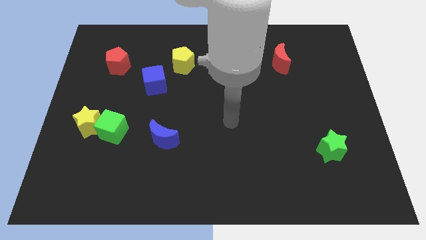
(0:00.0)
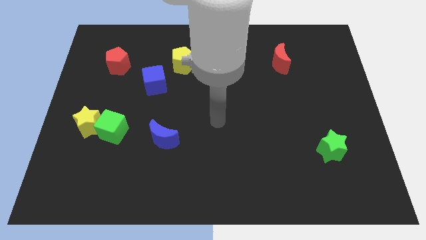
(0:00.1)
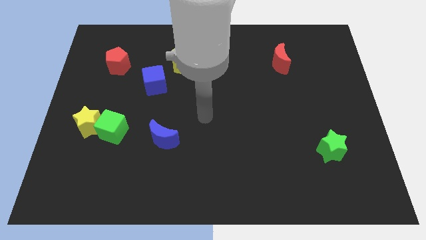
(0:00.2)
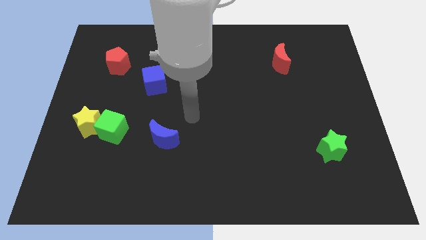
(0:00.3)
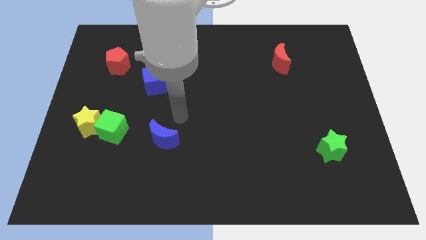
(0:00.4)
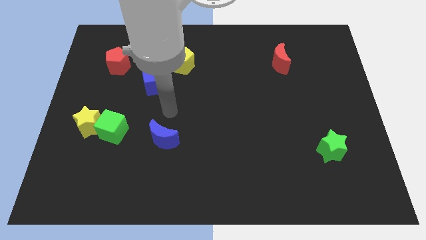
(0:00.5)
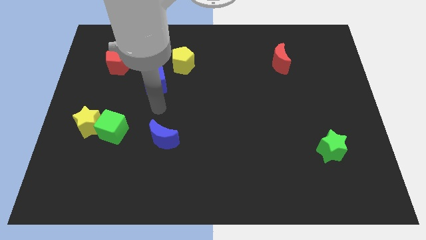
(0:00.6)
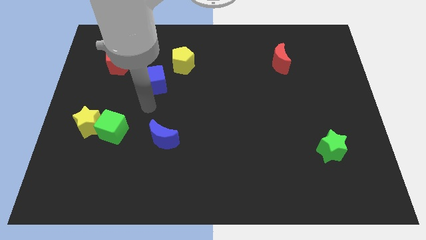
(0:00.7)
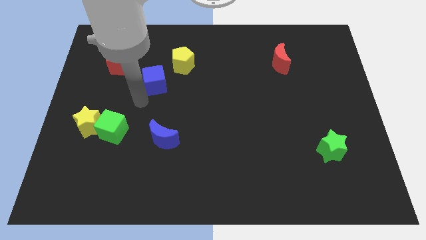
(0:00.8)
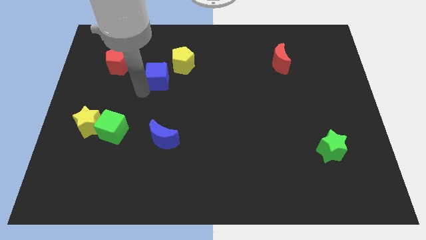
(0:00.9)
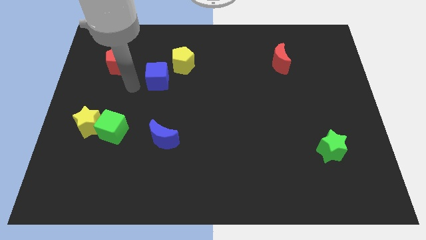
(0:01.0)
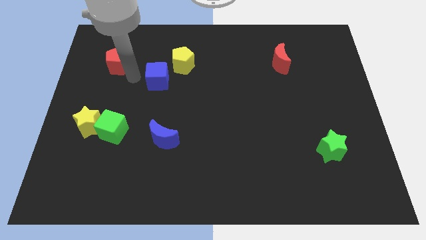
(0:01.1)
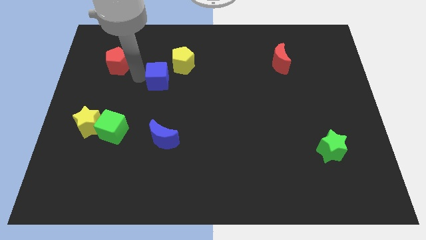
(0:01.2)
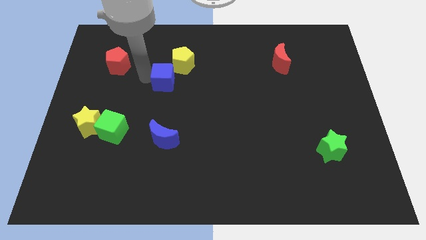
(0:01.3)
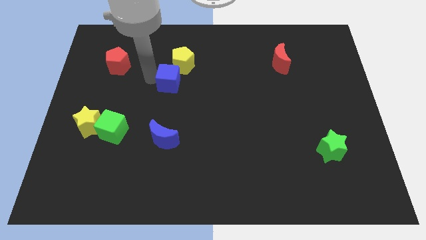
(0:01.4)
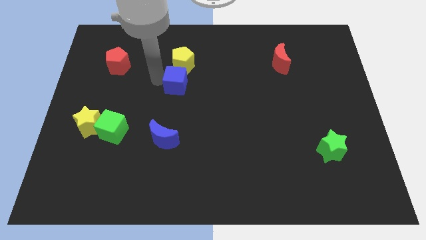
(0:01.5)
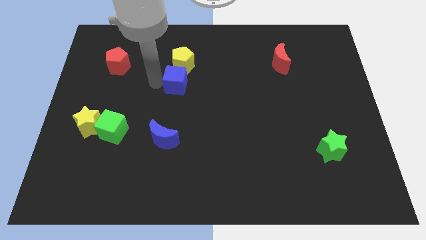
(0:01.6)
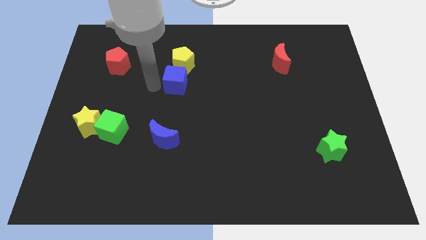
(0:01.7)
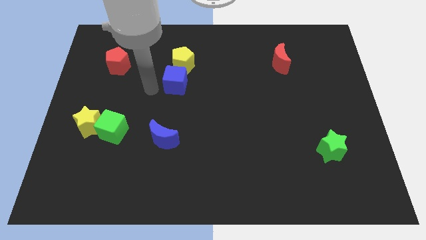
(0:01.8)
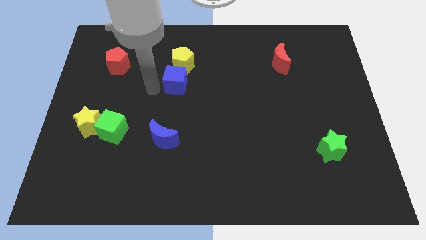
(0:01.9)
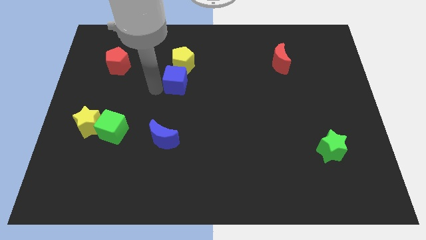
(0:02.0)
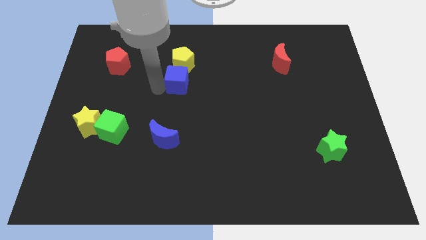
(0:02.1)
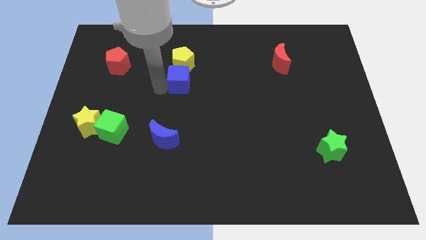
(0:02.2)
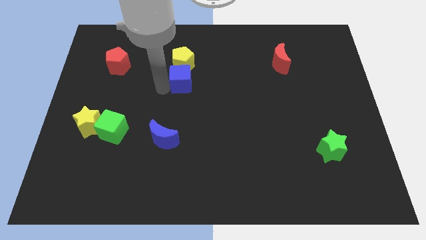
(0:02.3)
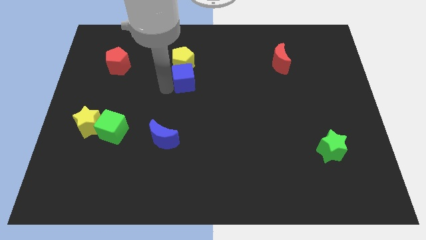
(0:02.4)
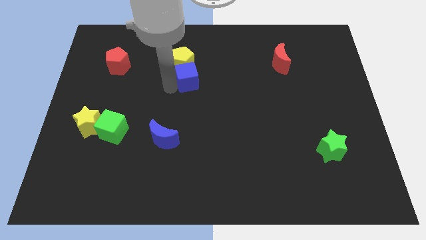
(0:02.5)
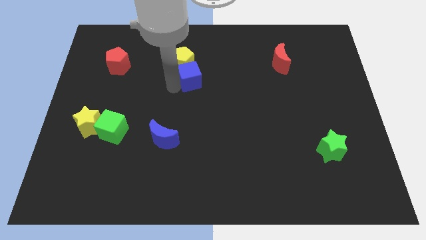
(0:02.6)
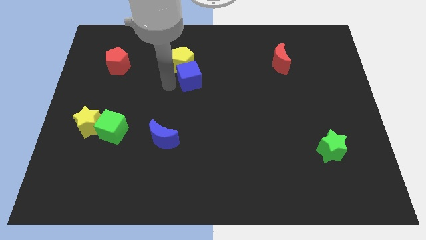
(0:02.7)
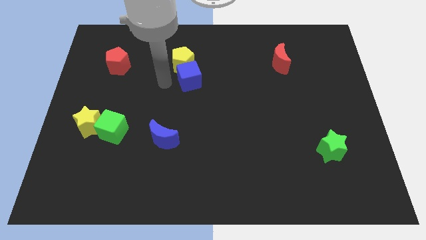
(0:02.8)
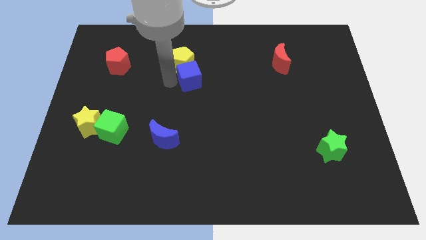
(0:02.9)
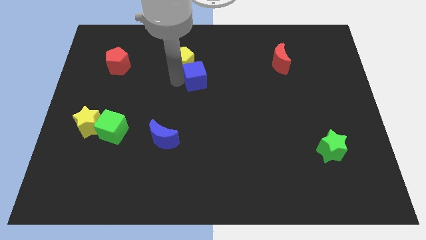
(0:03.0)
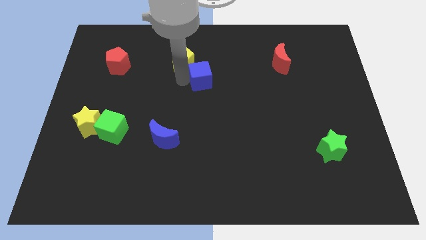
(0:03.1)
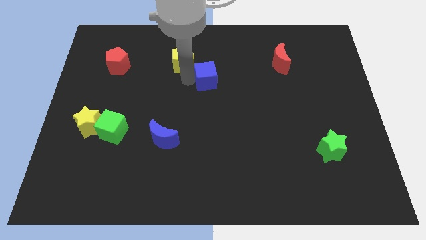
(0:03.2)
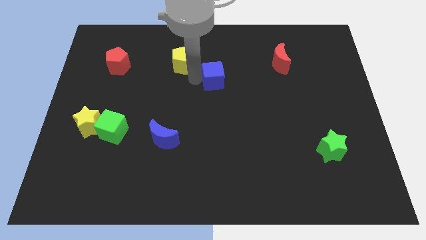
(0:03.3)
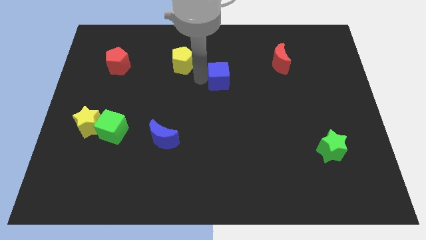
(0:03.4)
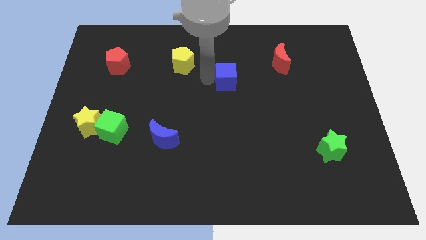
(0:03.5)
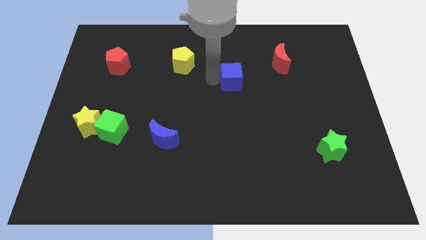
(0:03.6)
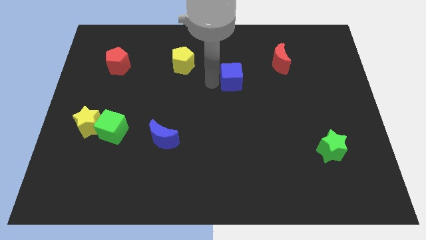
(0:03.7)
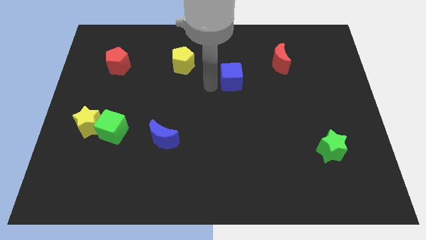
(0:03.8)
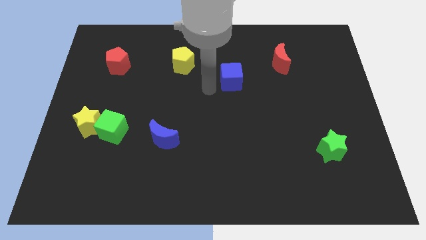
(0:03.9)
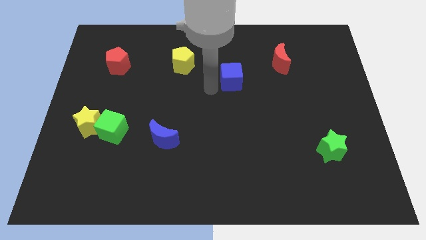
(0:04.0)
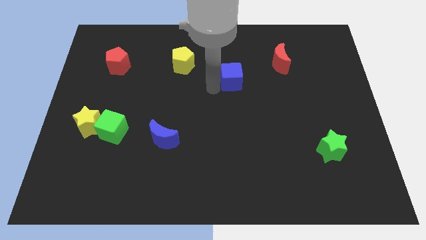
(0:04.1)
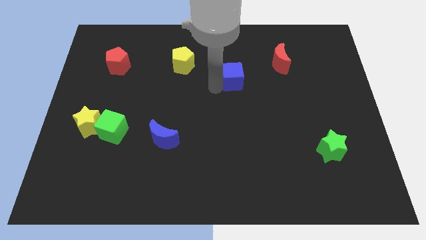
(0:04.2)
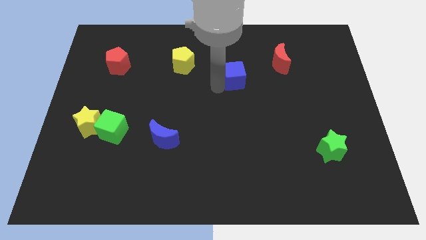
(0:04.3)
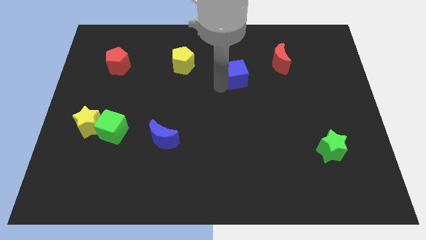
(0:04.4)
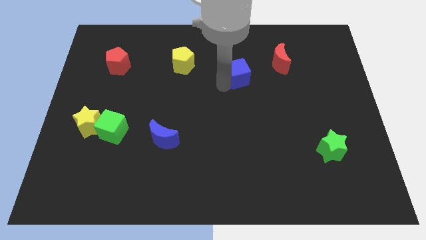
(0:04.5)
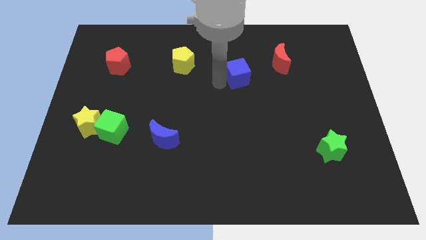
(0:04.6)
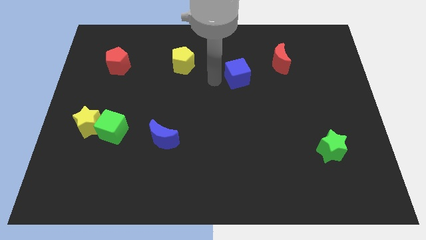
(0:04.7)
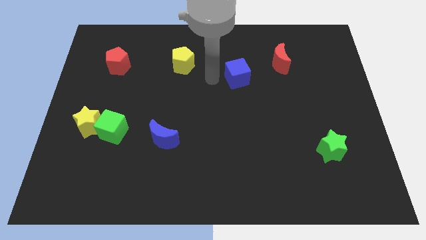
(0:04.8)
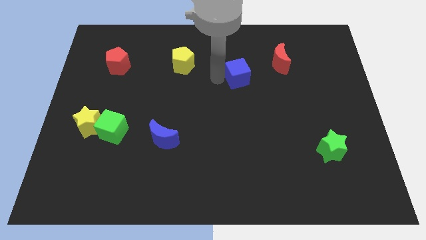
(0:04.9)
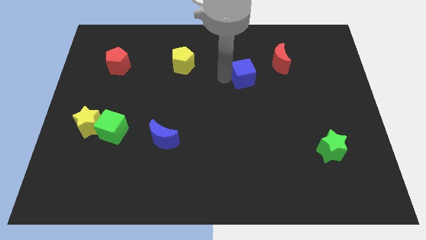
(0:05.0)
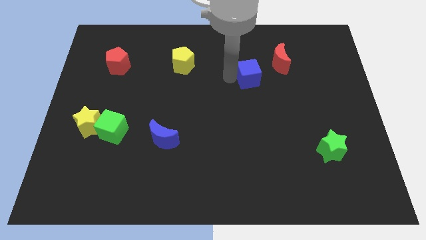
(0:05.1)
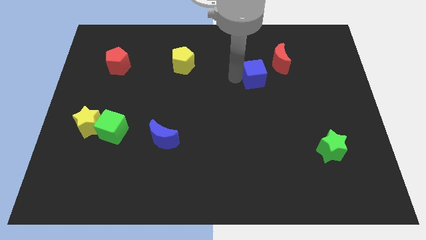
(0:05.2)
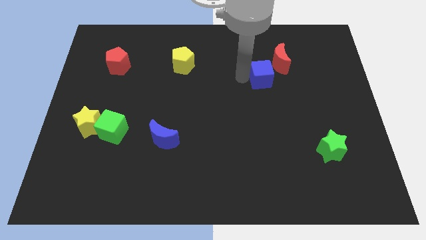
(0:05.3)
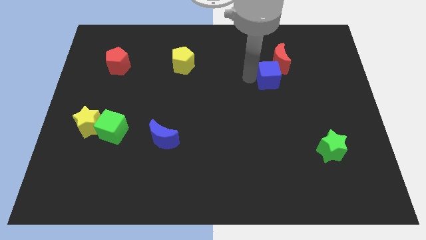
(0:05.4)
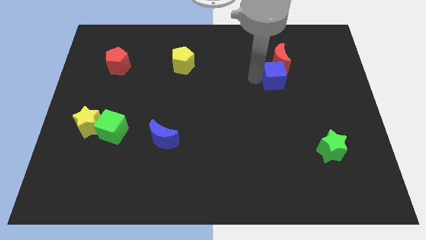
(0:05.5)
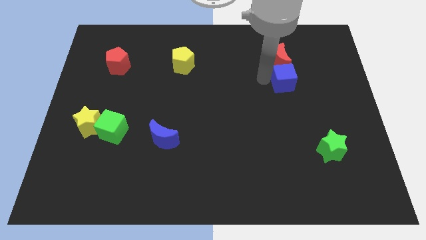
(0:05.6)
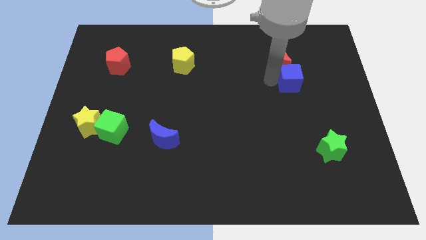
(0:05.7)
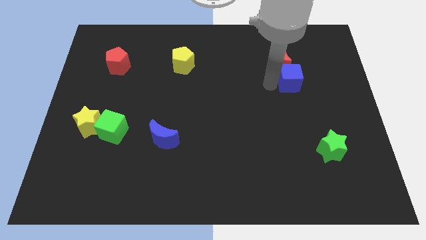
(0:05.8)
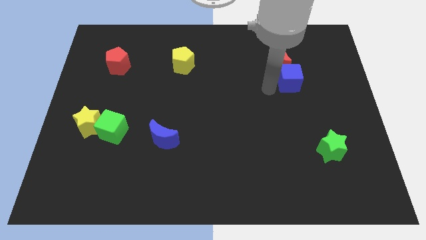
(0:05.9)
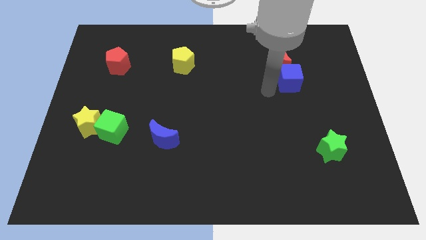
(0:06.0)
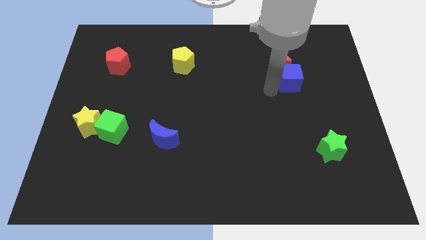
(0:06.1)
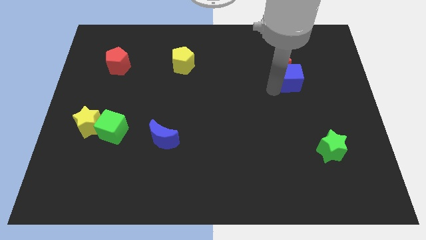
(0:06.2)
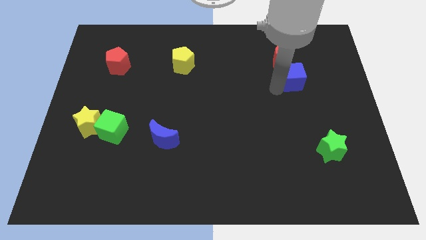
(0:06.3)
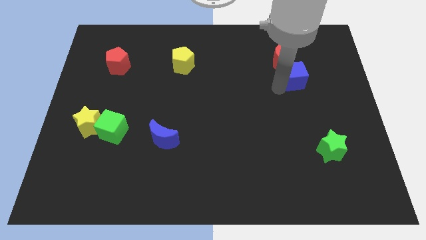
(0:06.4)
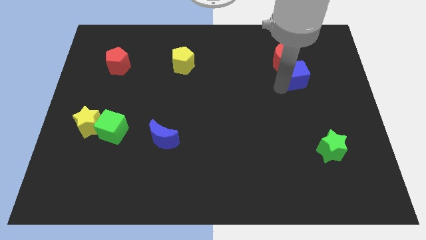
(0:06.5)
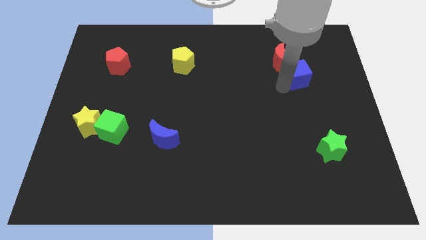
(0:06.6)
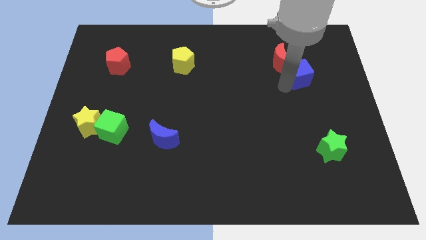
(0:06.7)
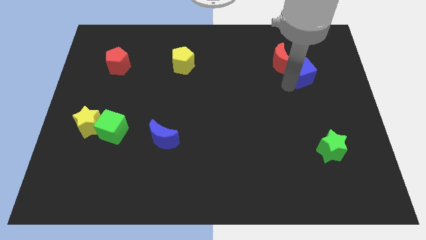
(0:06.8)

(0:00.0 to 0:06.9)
slide the blue cube right of the red moon
